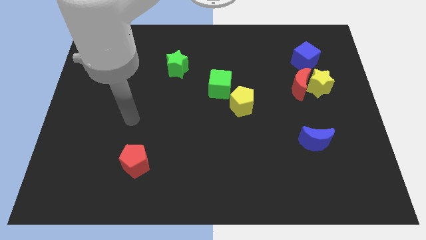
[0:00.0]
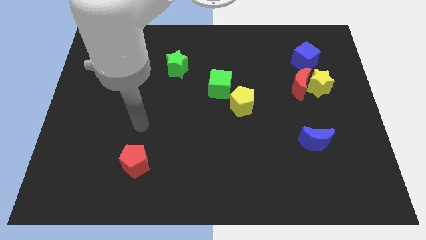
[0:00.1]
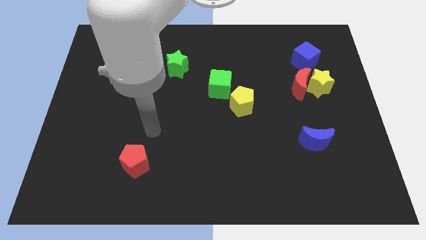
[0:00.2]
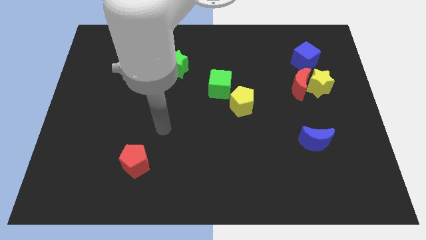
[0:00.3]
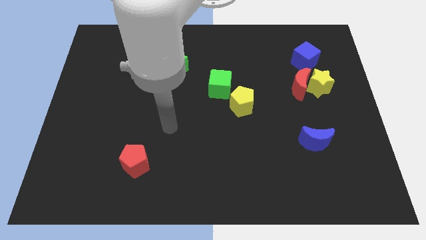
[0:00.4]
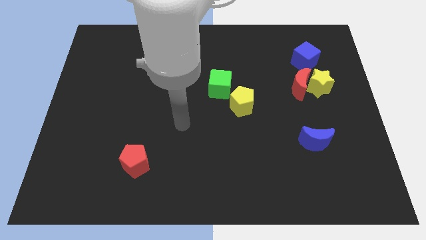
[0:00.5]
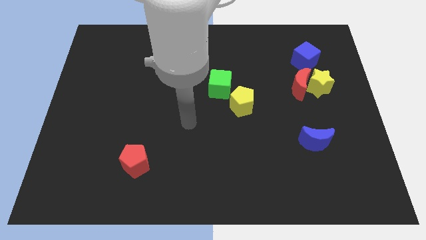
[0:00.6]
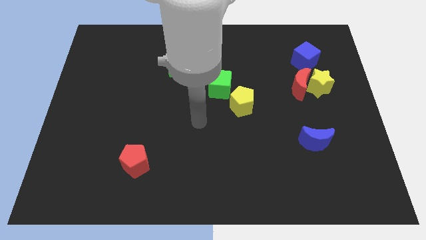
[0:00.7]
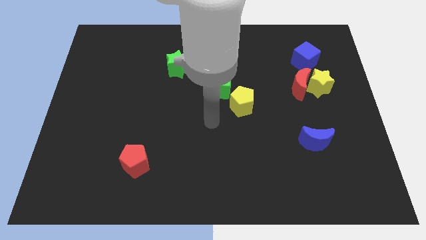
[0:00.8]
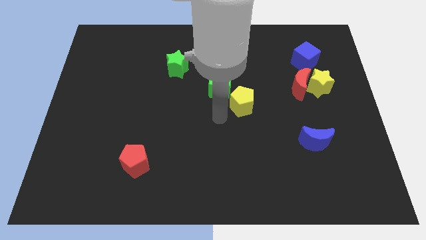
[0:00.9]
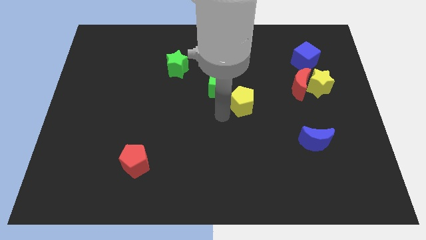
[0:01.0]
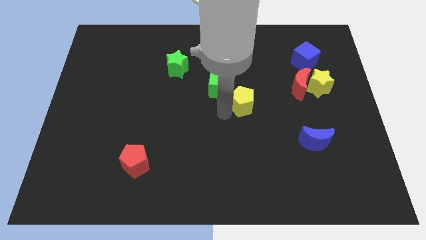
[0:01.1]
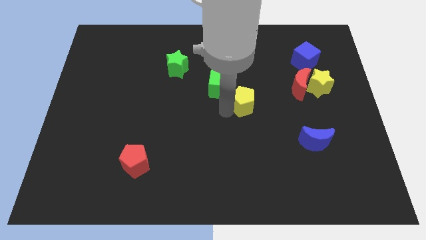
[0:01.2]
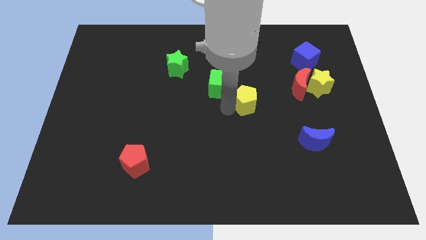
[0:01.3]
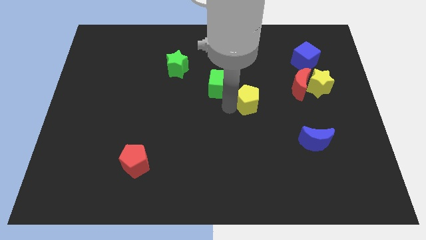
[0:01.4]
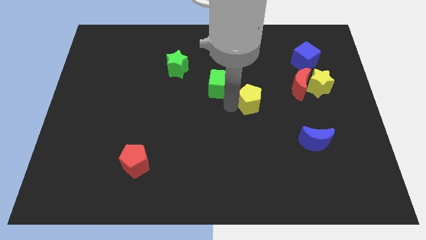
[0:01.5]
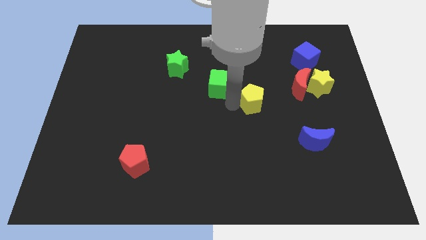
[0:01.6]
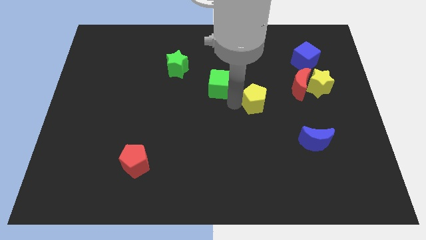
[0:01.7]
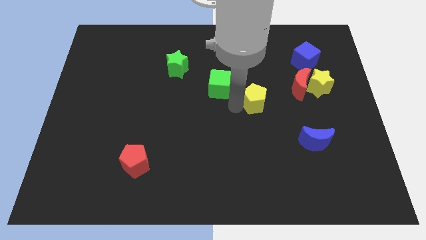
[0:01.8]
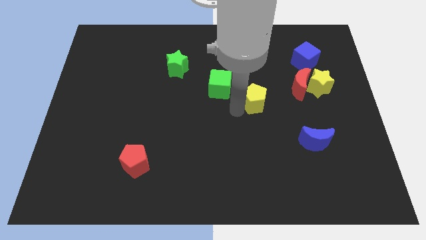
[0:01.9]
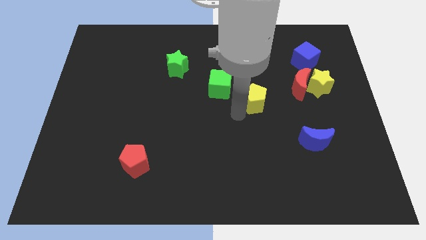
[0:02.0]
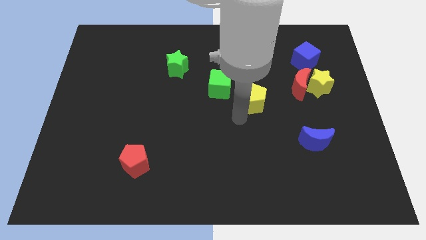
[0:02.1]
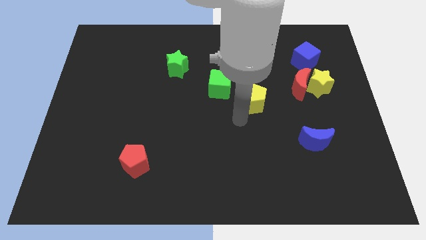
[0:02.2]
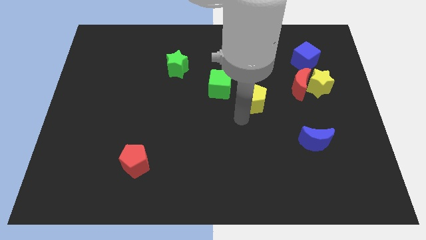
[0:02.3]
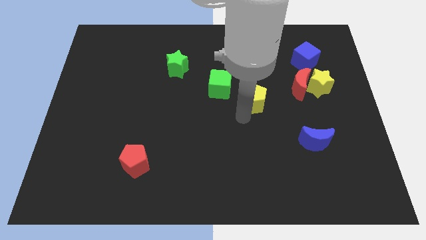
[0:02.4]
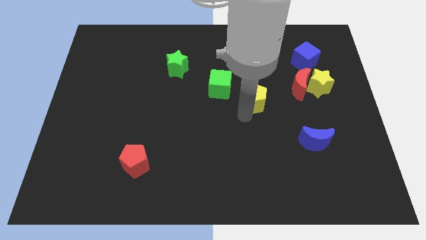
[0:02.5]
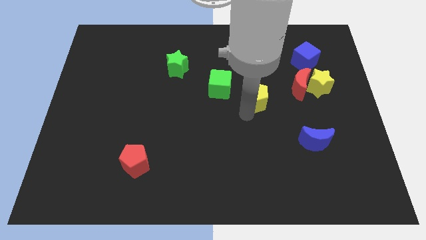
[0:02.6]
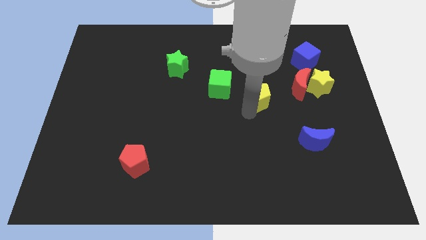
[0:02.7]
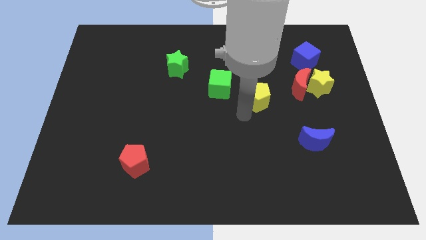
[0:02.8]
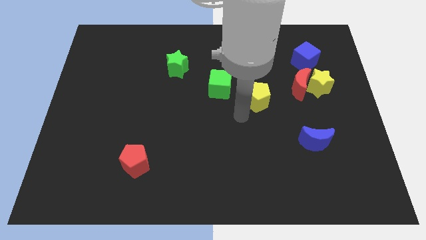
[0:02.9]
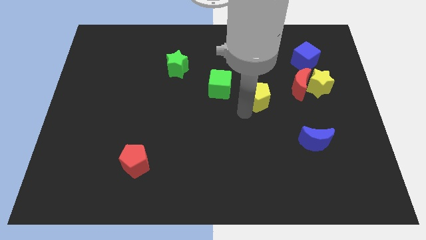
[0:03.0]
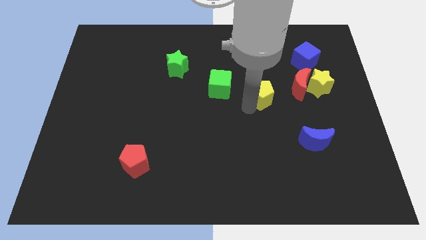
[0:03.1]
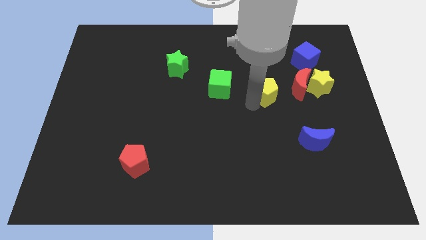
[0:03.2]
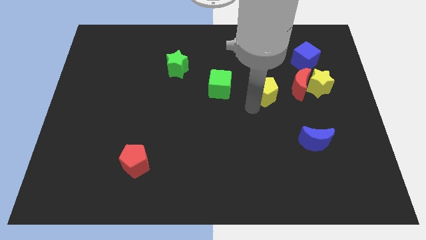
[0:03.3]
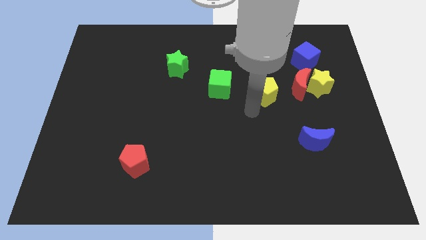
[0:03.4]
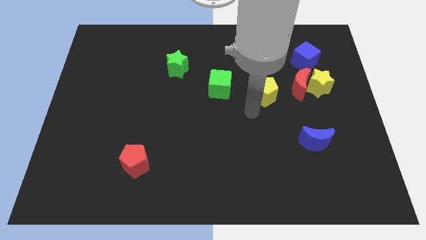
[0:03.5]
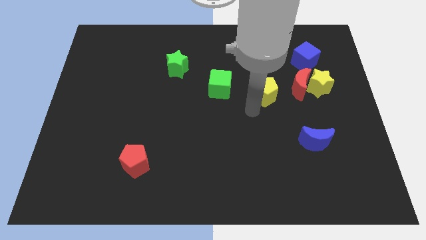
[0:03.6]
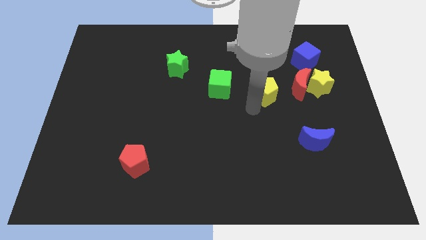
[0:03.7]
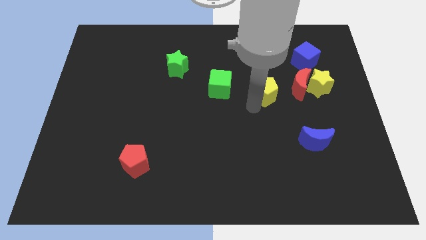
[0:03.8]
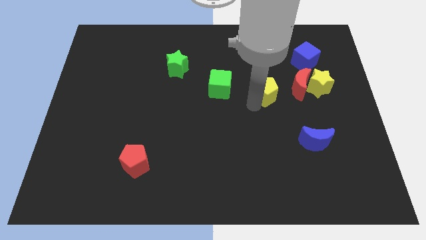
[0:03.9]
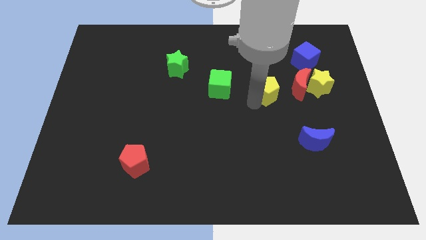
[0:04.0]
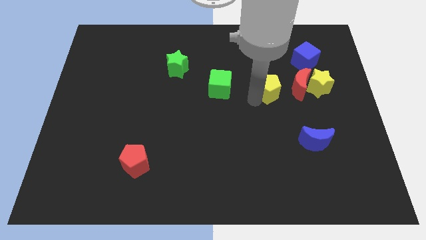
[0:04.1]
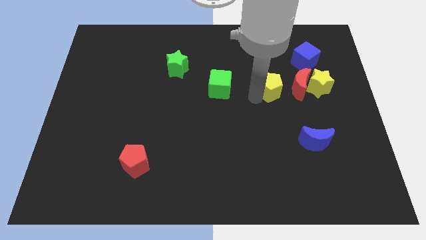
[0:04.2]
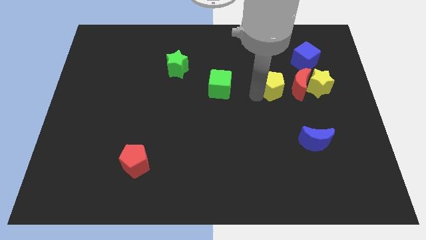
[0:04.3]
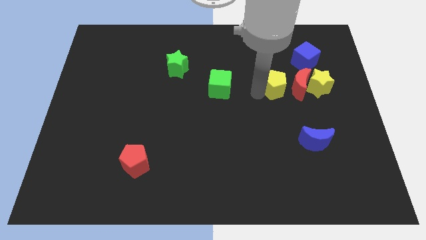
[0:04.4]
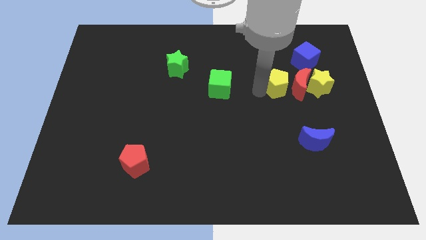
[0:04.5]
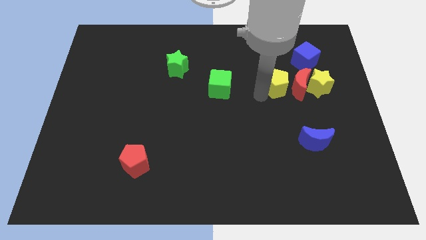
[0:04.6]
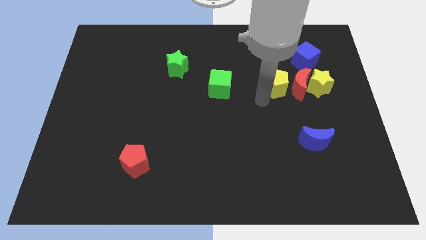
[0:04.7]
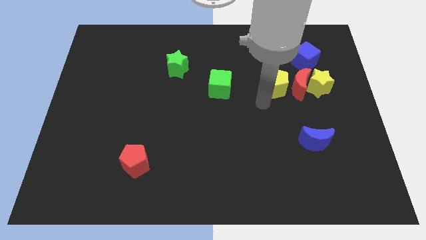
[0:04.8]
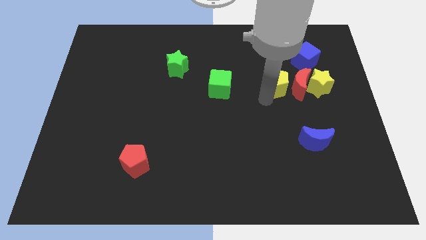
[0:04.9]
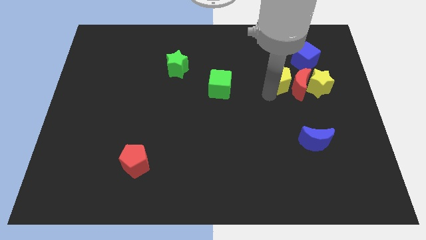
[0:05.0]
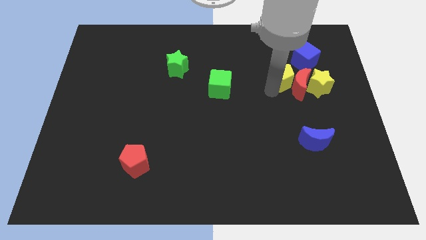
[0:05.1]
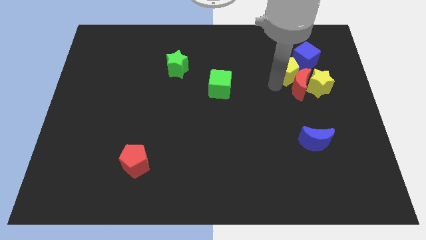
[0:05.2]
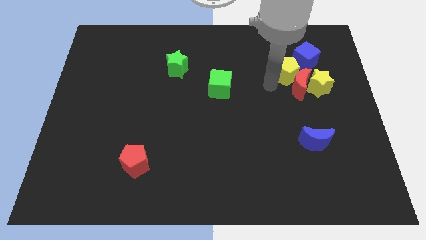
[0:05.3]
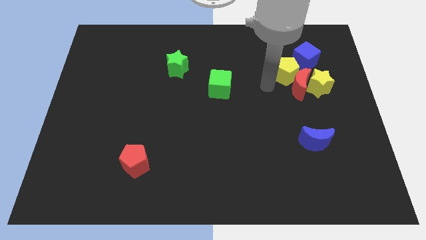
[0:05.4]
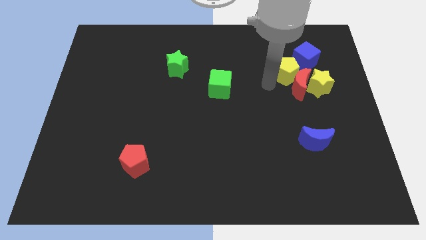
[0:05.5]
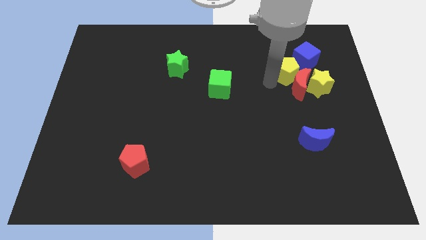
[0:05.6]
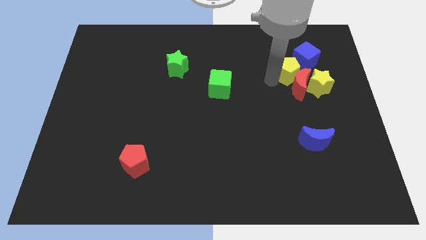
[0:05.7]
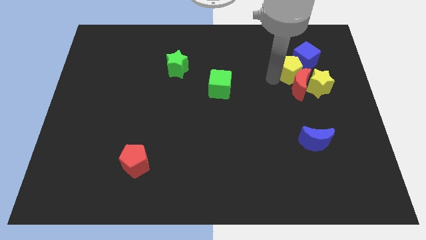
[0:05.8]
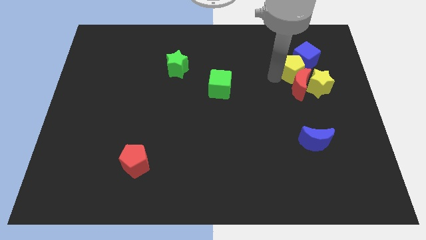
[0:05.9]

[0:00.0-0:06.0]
move the yellow pentagon towards the blue cube

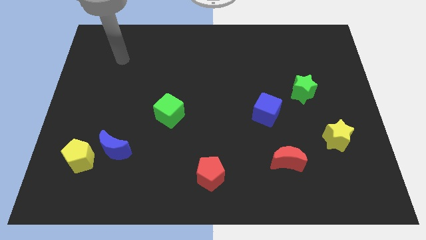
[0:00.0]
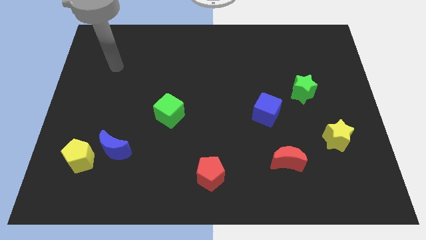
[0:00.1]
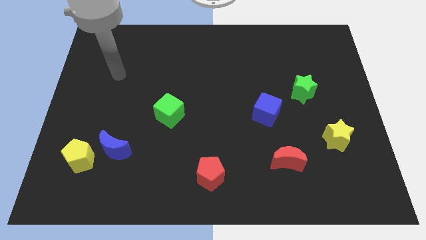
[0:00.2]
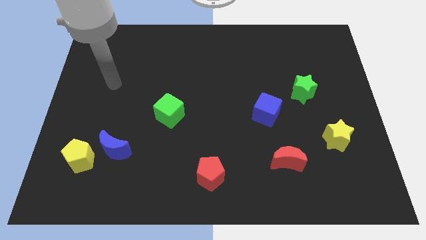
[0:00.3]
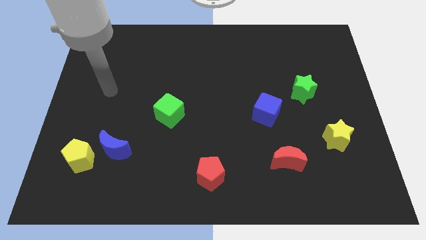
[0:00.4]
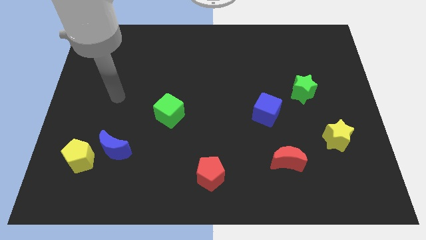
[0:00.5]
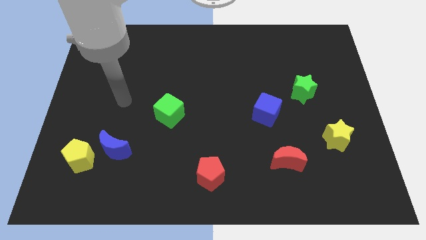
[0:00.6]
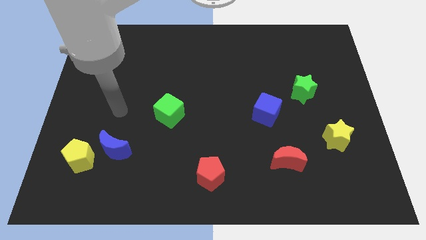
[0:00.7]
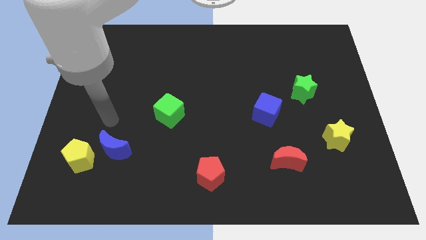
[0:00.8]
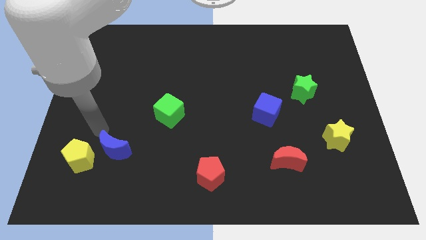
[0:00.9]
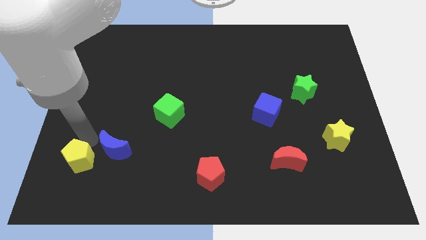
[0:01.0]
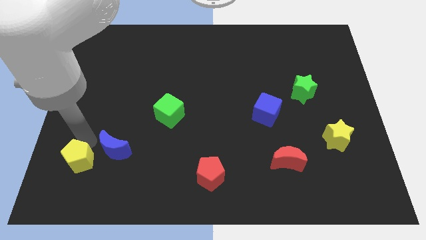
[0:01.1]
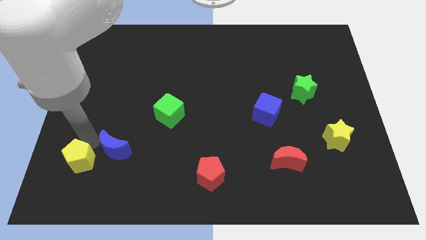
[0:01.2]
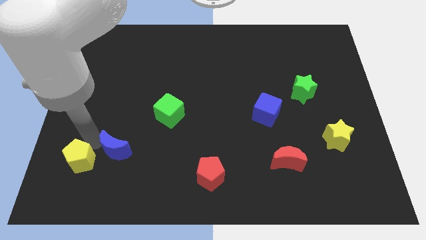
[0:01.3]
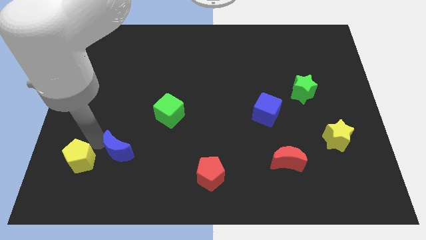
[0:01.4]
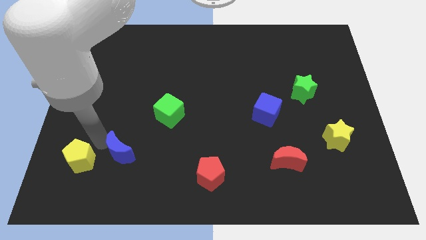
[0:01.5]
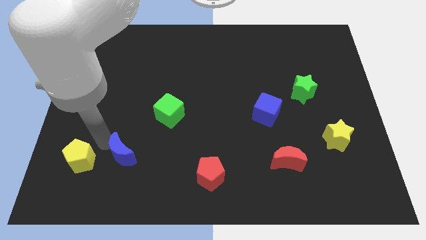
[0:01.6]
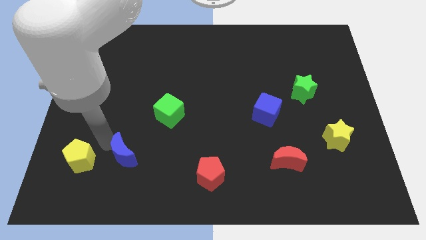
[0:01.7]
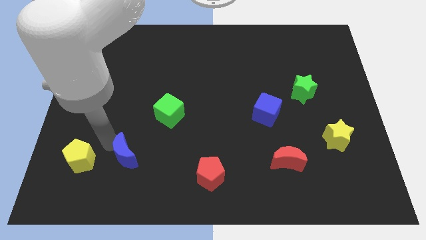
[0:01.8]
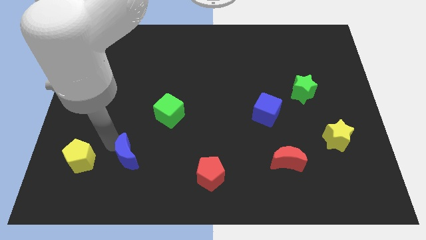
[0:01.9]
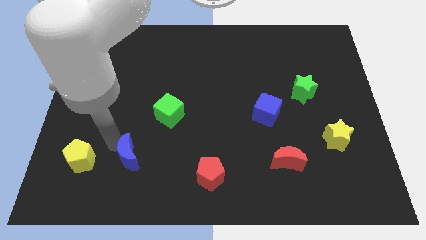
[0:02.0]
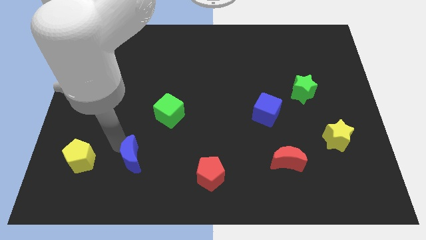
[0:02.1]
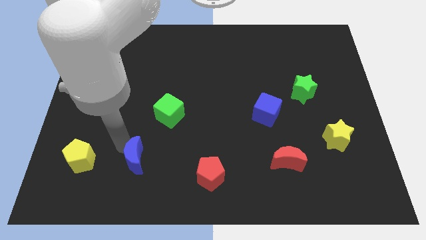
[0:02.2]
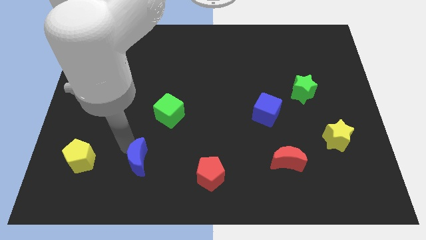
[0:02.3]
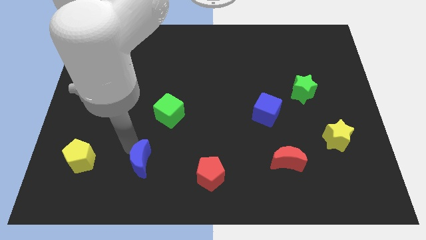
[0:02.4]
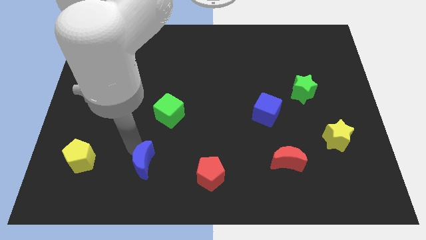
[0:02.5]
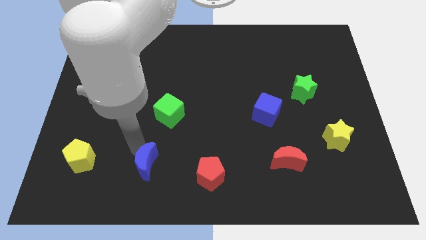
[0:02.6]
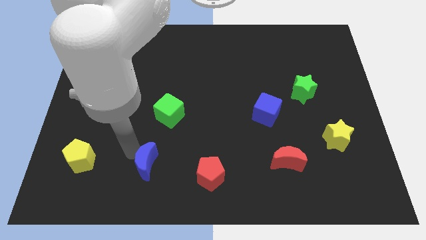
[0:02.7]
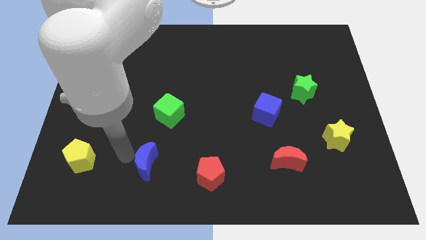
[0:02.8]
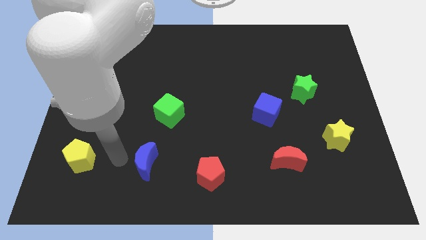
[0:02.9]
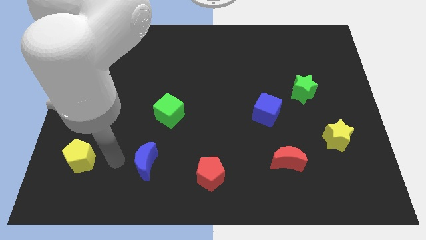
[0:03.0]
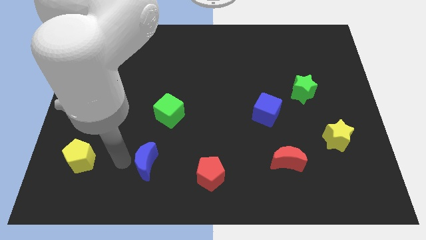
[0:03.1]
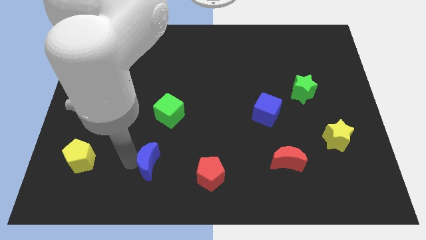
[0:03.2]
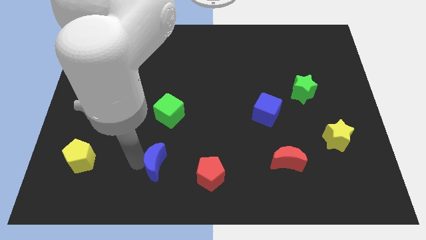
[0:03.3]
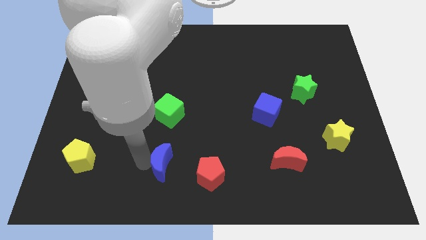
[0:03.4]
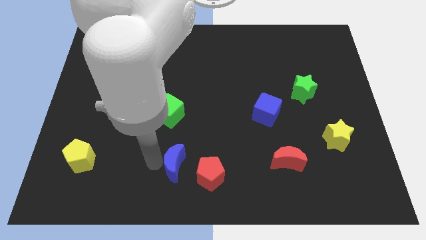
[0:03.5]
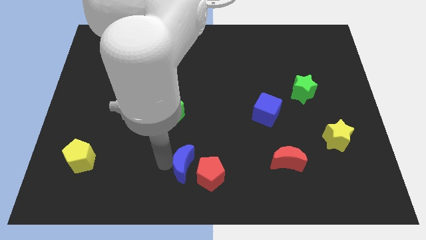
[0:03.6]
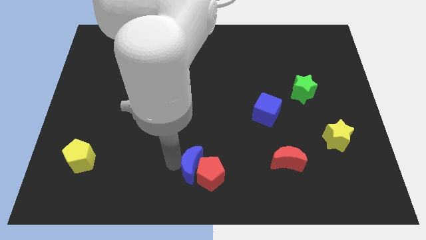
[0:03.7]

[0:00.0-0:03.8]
push the blue moon towards the red pentagon
